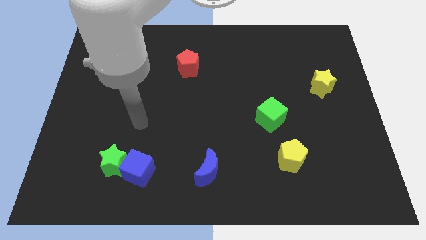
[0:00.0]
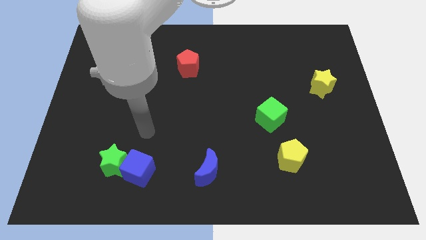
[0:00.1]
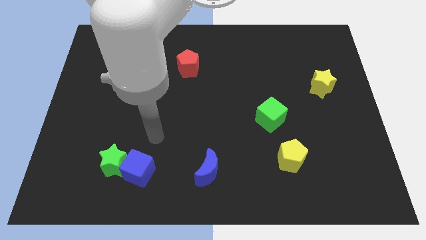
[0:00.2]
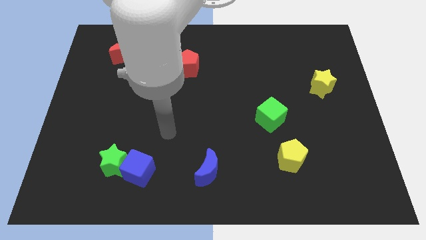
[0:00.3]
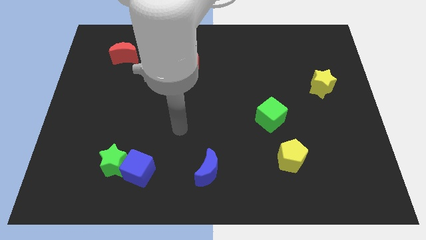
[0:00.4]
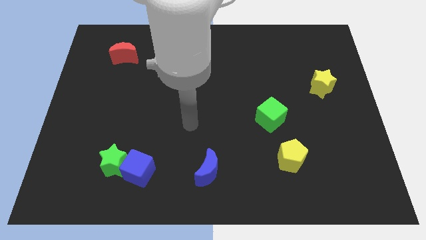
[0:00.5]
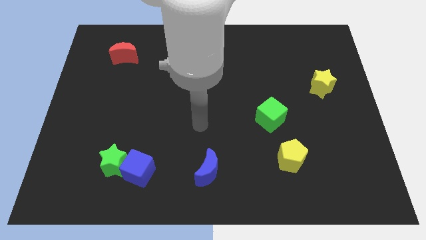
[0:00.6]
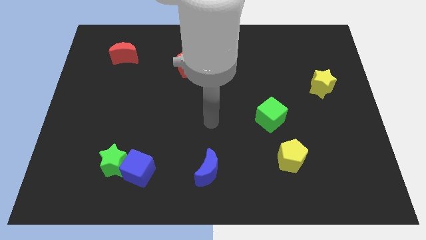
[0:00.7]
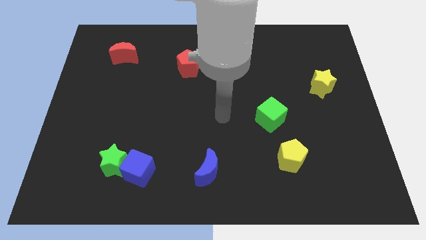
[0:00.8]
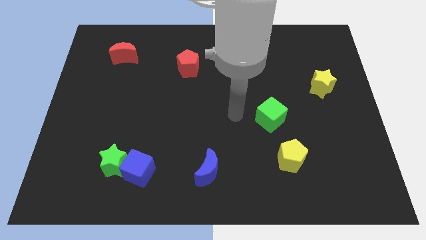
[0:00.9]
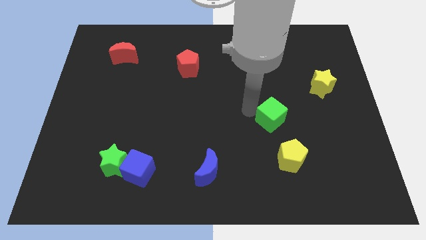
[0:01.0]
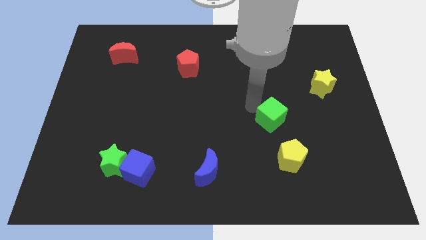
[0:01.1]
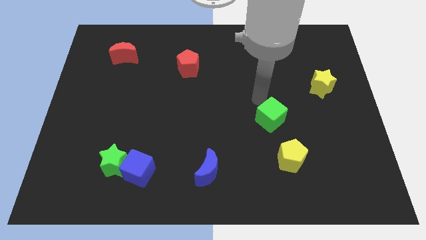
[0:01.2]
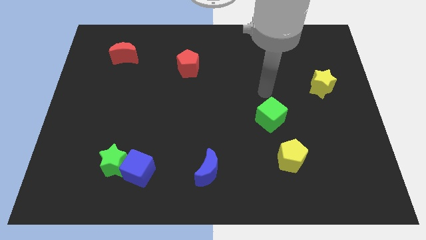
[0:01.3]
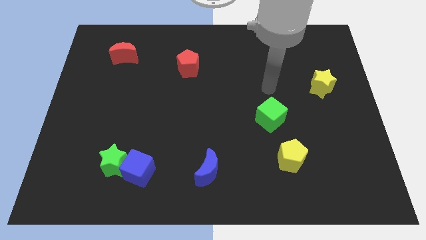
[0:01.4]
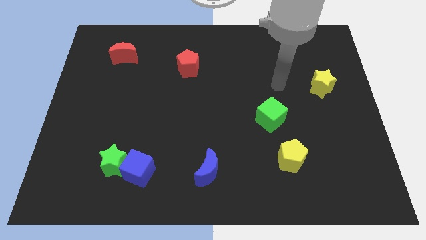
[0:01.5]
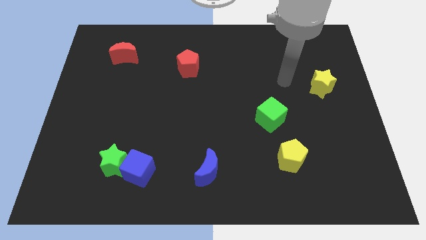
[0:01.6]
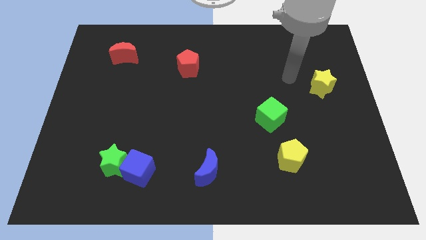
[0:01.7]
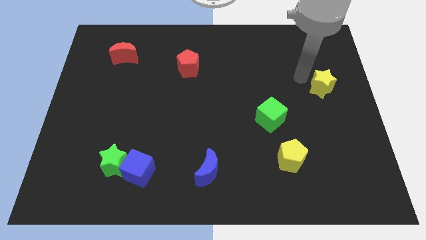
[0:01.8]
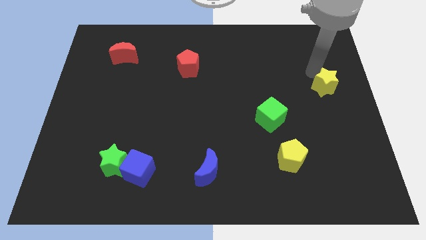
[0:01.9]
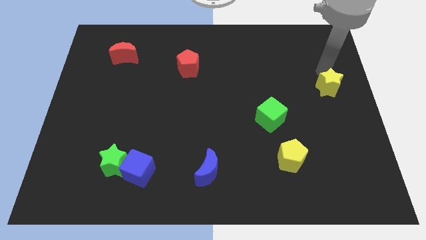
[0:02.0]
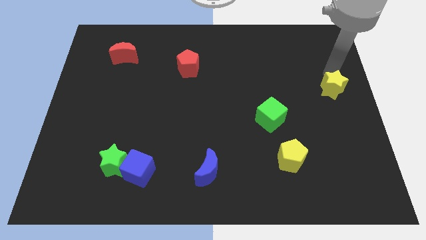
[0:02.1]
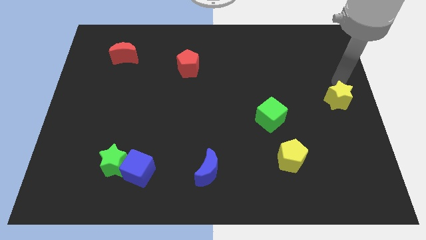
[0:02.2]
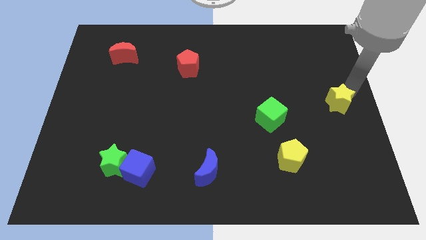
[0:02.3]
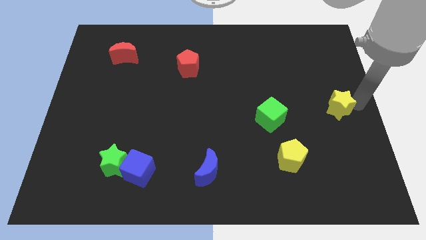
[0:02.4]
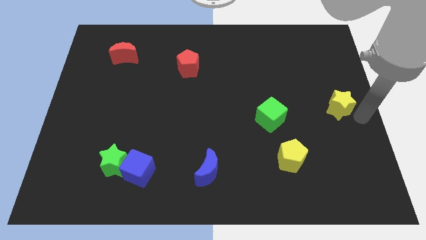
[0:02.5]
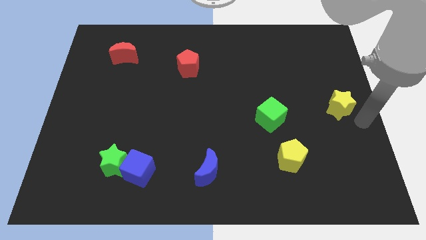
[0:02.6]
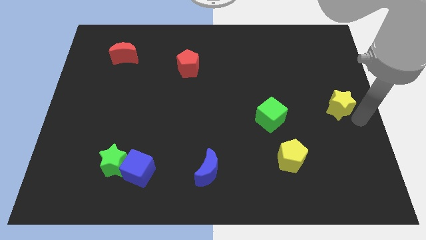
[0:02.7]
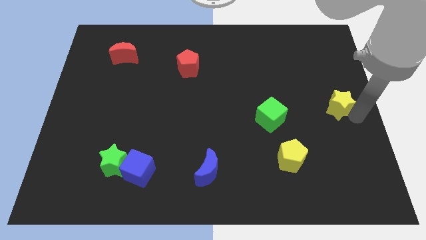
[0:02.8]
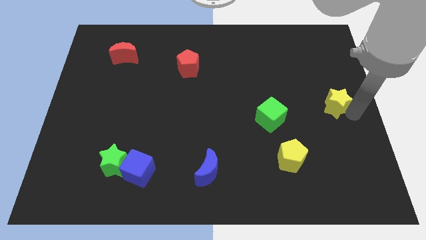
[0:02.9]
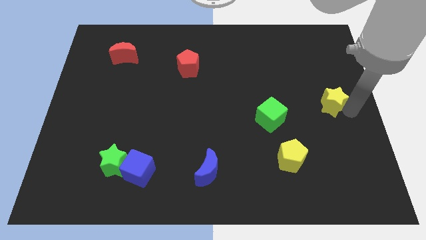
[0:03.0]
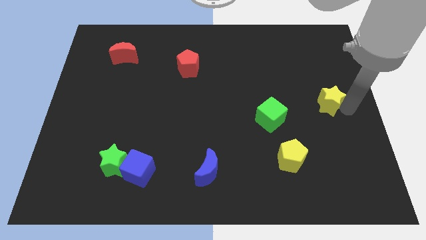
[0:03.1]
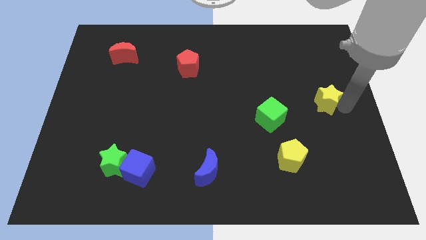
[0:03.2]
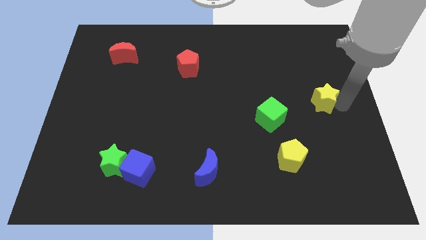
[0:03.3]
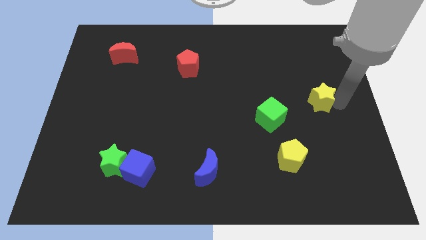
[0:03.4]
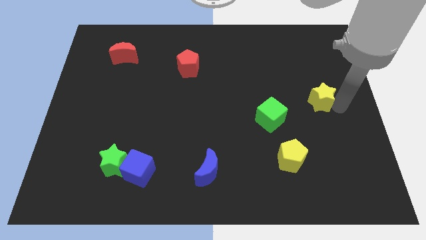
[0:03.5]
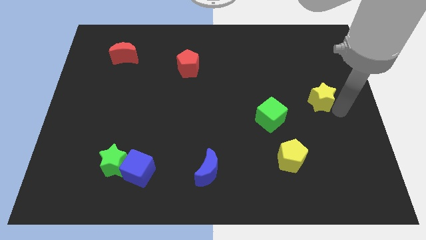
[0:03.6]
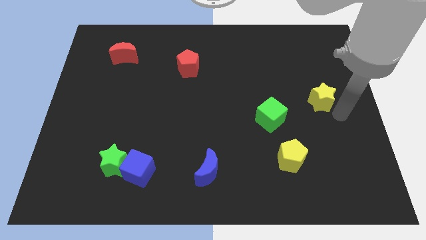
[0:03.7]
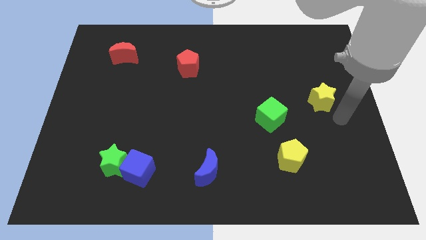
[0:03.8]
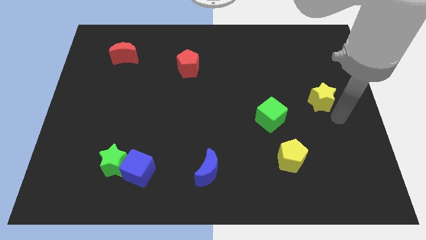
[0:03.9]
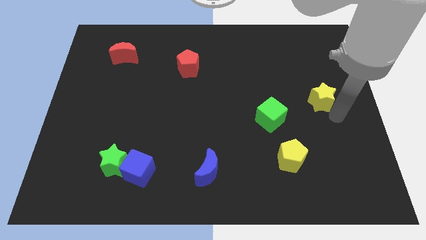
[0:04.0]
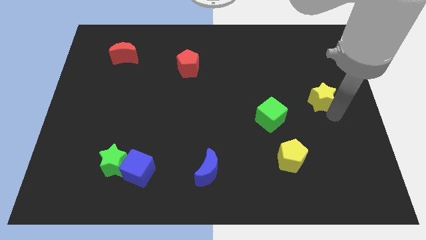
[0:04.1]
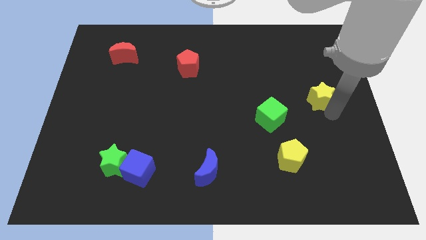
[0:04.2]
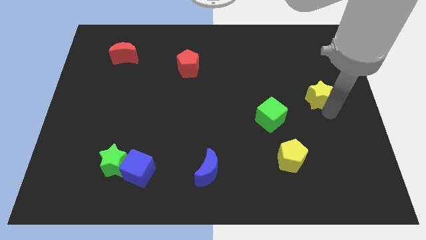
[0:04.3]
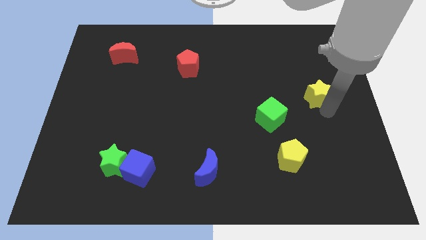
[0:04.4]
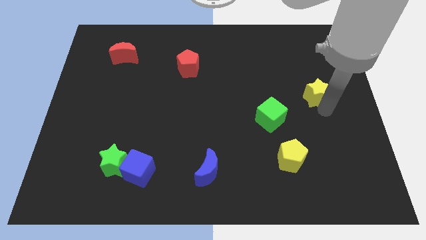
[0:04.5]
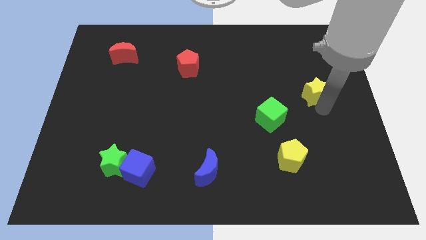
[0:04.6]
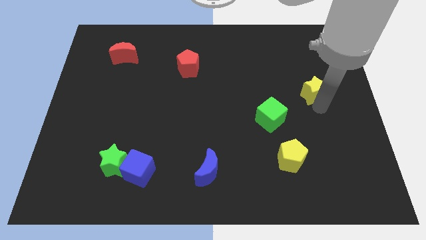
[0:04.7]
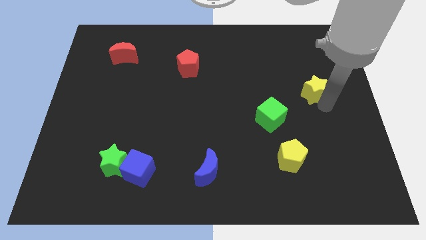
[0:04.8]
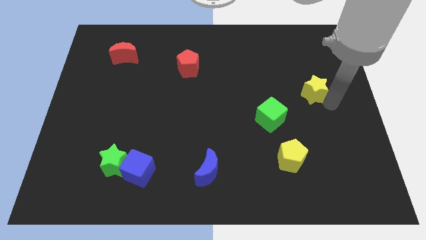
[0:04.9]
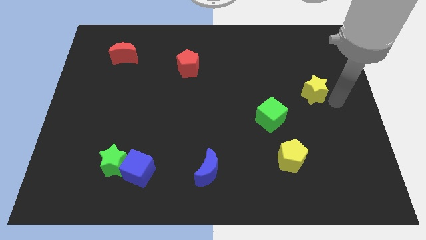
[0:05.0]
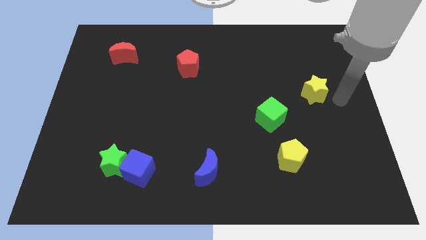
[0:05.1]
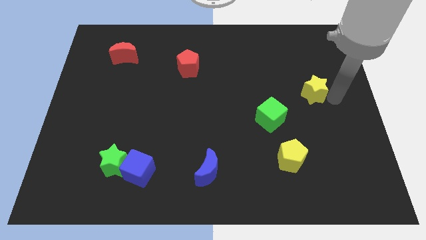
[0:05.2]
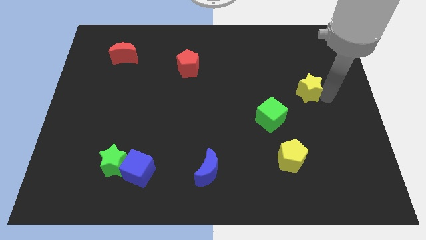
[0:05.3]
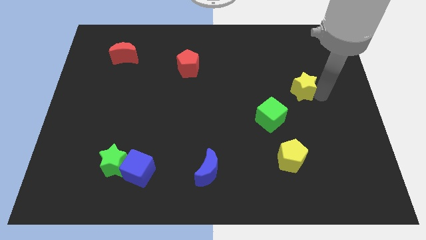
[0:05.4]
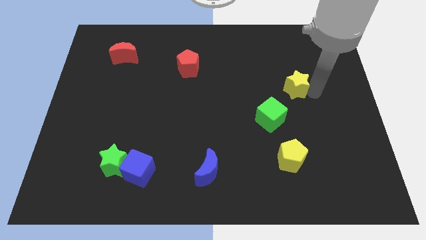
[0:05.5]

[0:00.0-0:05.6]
push the yellow star a bit left

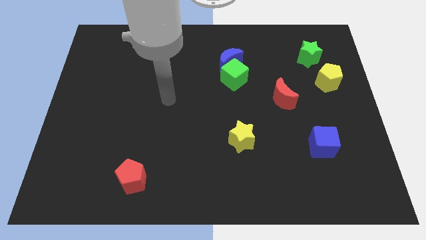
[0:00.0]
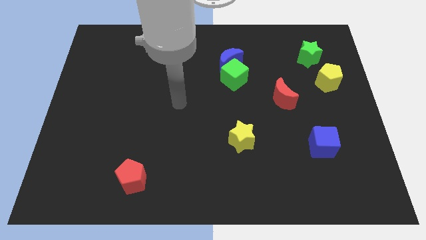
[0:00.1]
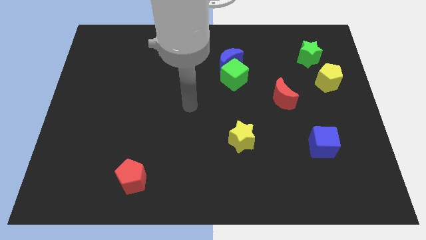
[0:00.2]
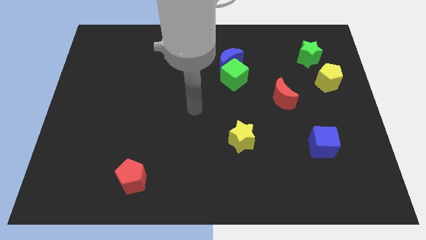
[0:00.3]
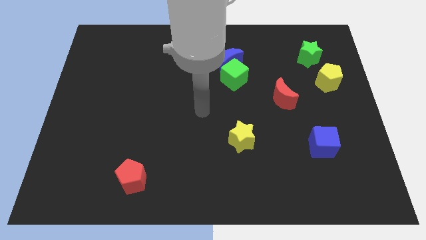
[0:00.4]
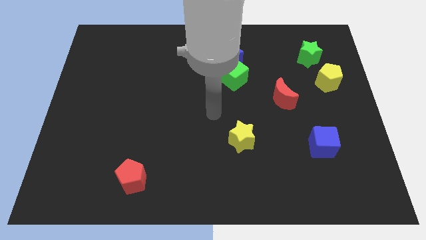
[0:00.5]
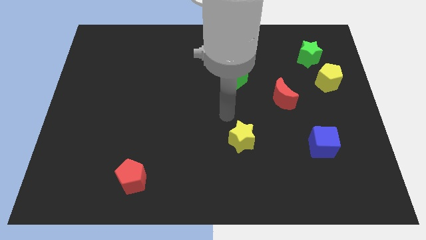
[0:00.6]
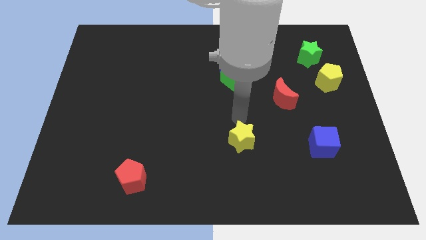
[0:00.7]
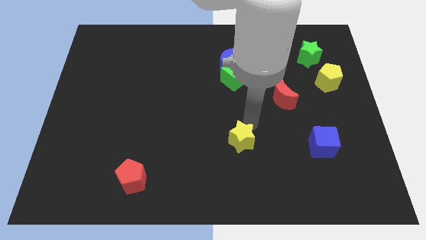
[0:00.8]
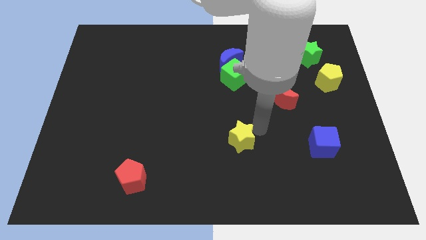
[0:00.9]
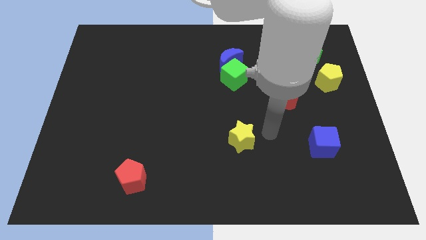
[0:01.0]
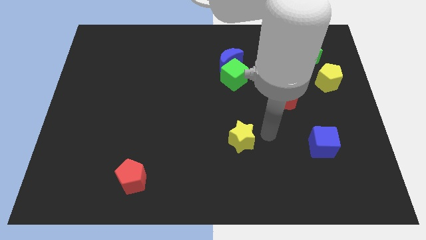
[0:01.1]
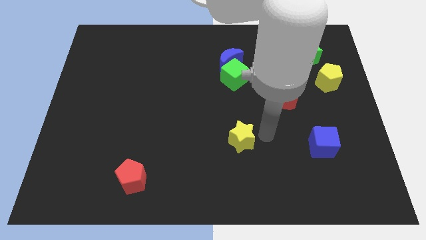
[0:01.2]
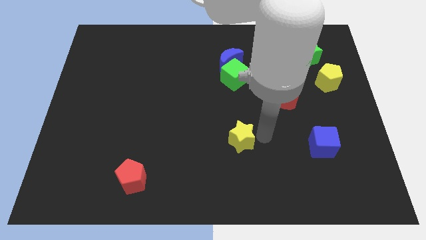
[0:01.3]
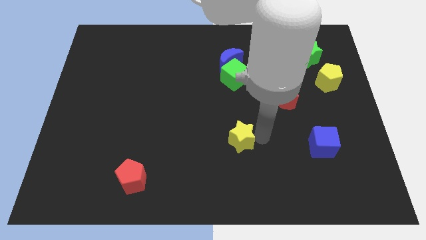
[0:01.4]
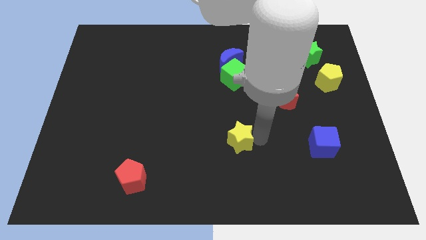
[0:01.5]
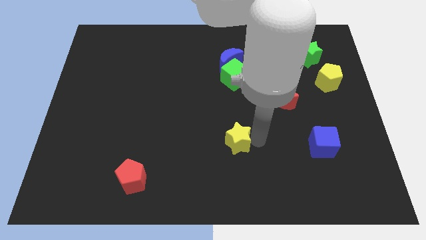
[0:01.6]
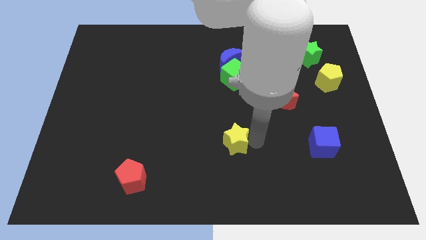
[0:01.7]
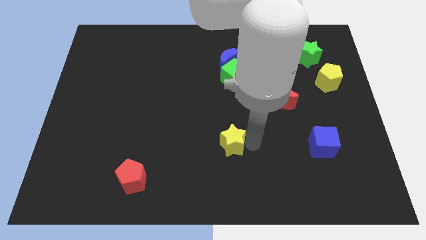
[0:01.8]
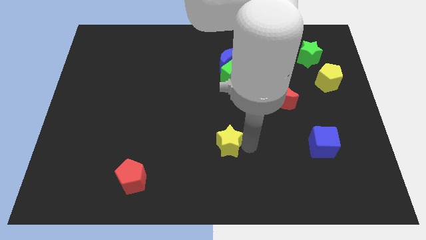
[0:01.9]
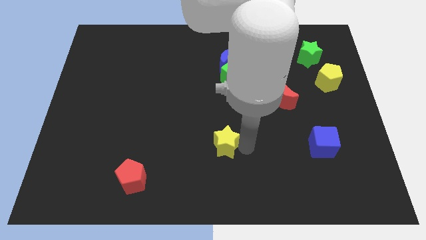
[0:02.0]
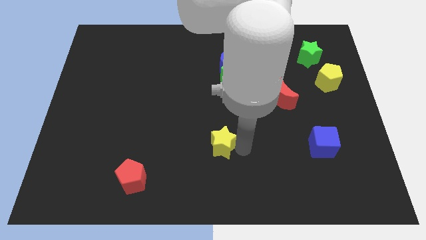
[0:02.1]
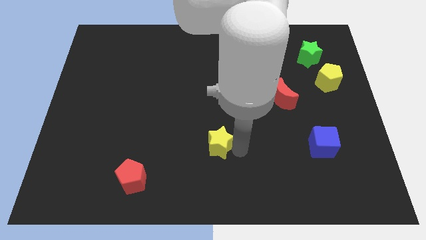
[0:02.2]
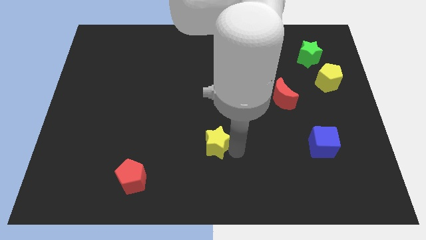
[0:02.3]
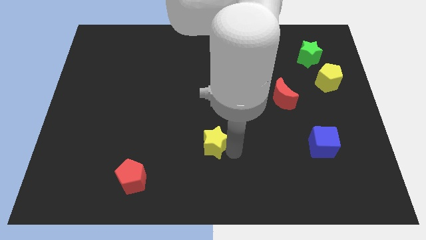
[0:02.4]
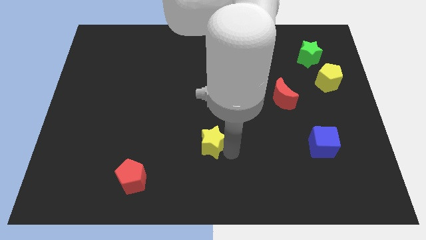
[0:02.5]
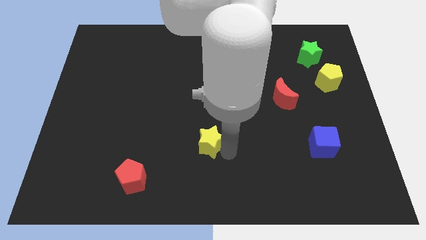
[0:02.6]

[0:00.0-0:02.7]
slightly slide the yellow star left
